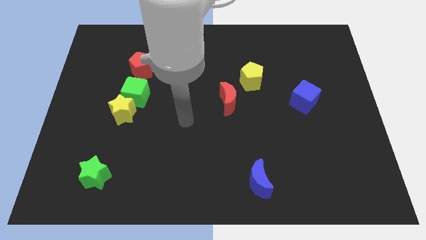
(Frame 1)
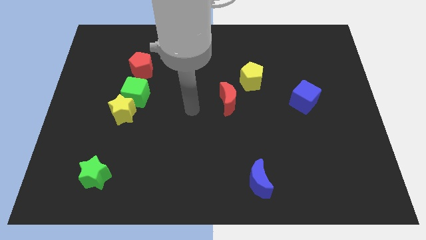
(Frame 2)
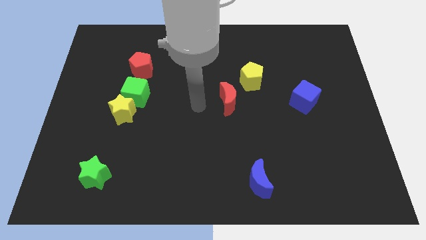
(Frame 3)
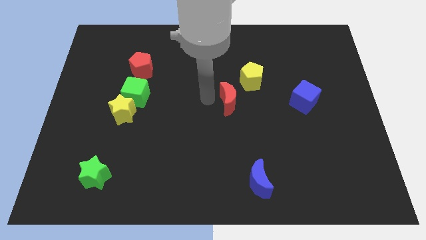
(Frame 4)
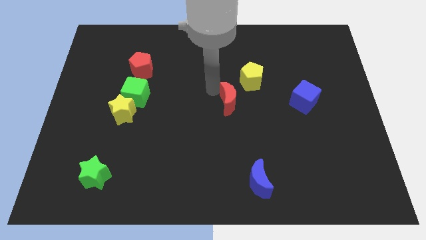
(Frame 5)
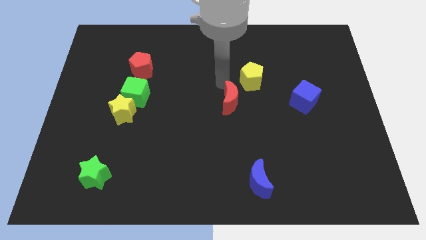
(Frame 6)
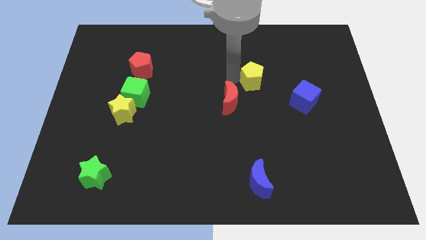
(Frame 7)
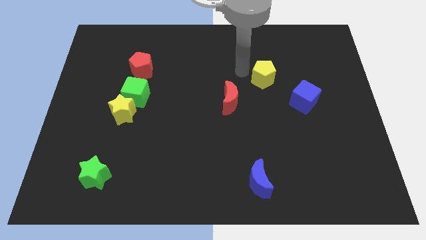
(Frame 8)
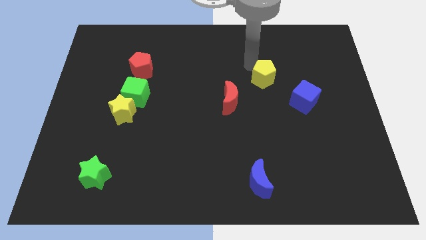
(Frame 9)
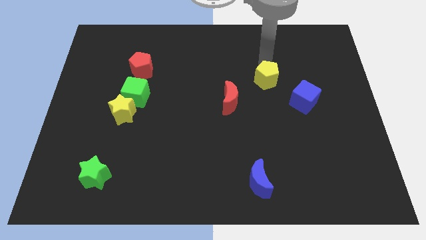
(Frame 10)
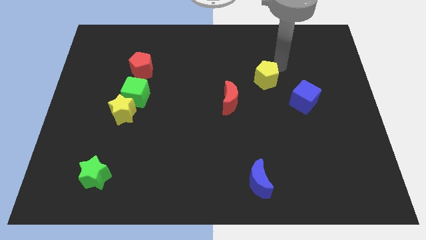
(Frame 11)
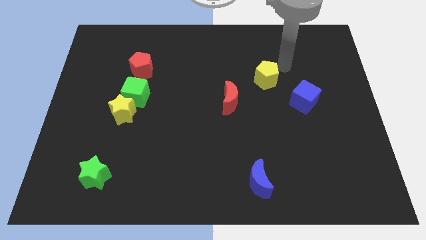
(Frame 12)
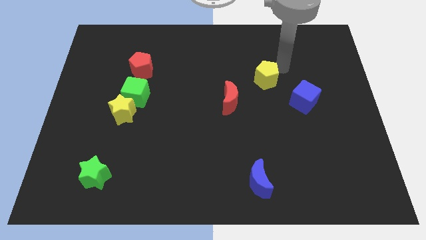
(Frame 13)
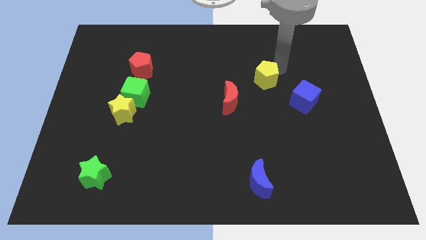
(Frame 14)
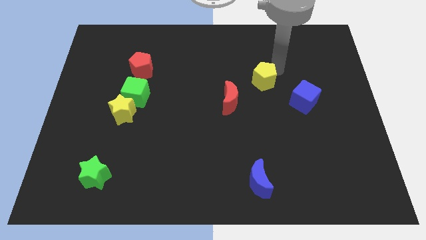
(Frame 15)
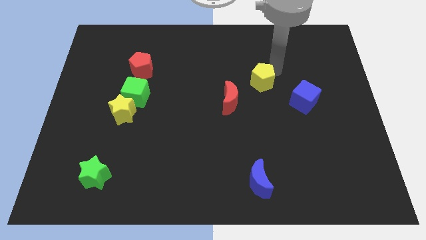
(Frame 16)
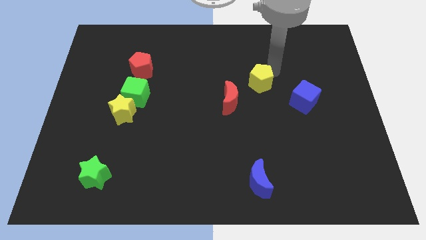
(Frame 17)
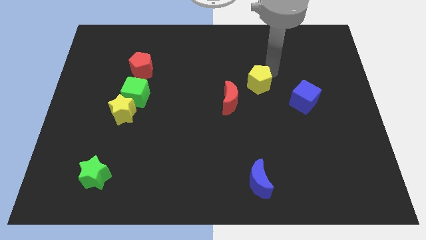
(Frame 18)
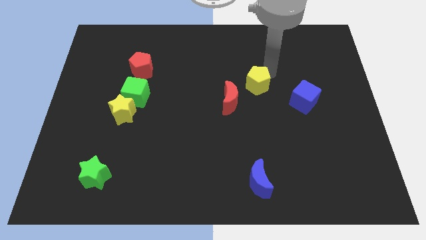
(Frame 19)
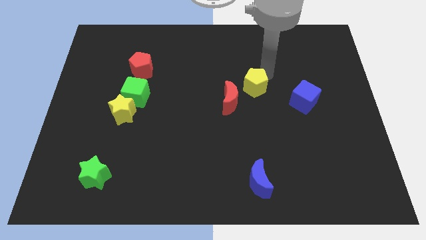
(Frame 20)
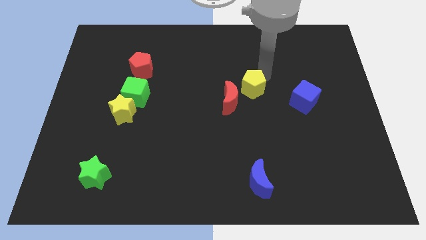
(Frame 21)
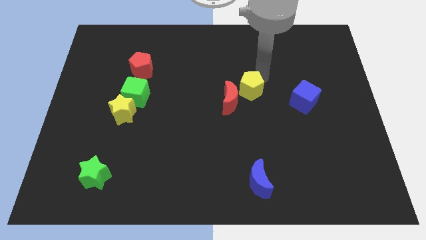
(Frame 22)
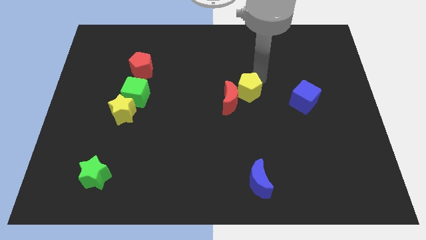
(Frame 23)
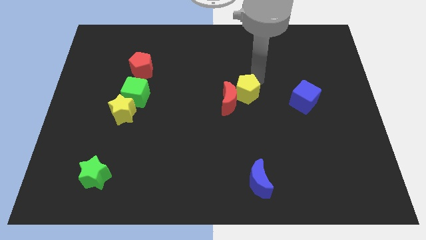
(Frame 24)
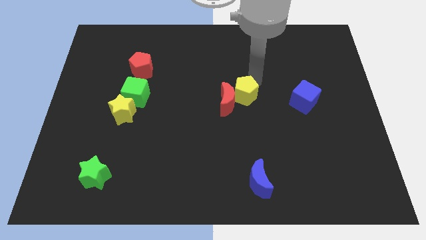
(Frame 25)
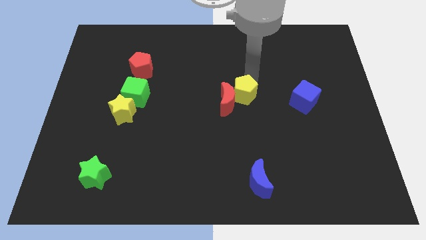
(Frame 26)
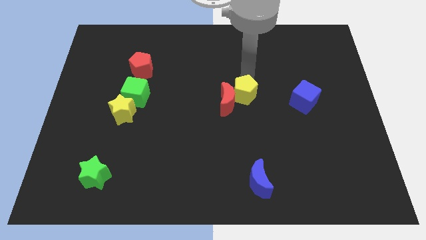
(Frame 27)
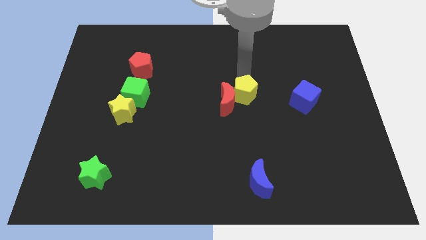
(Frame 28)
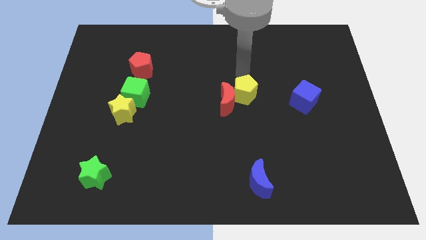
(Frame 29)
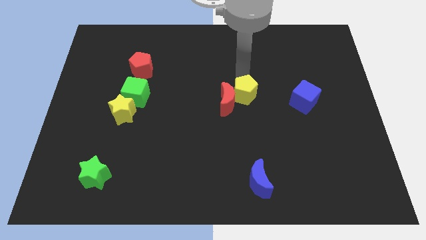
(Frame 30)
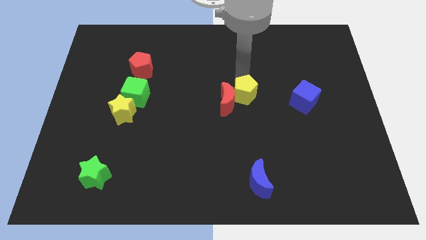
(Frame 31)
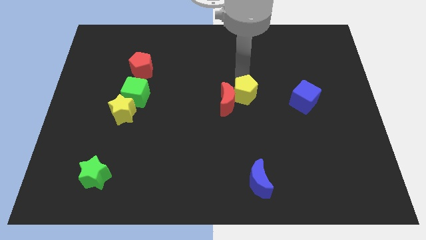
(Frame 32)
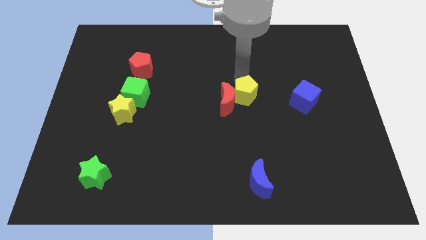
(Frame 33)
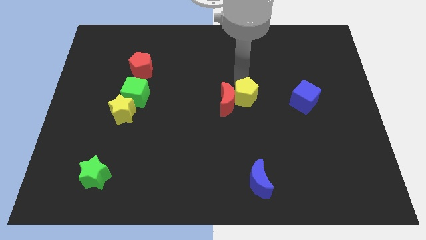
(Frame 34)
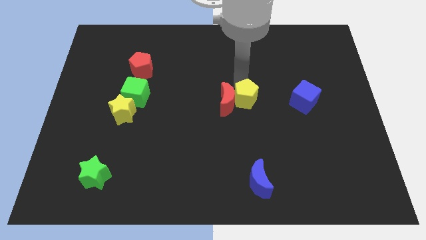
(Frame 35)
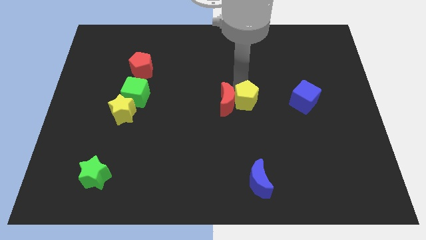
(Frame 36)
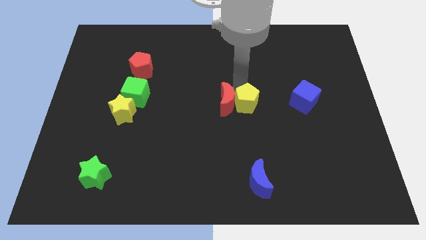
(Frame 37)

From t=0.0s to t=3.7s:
slide the yellow pentagon downwards a little bit

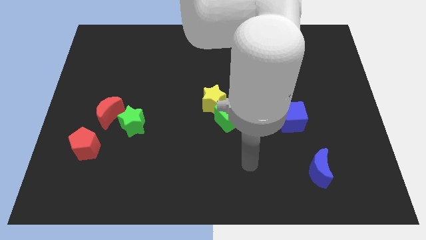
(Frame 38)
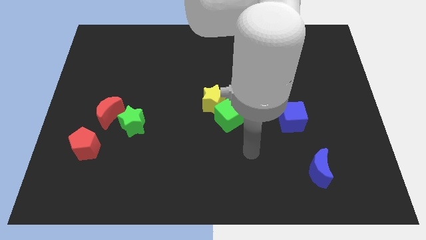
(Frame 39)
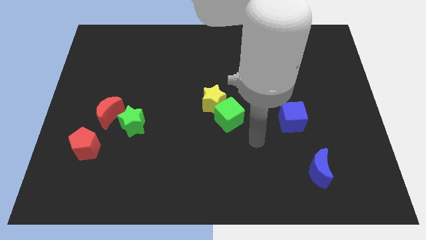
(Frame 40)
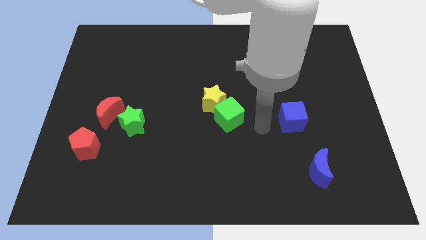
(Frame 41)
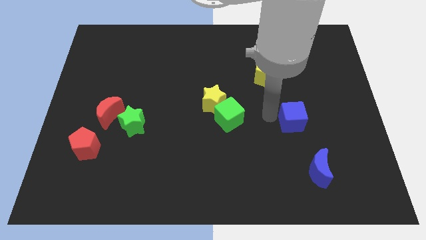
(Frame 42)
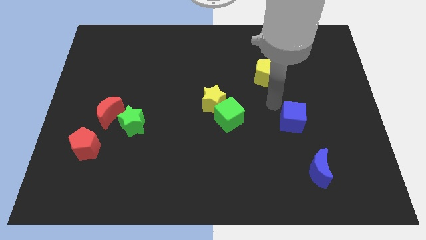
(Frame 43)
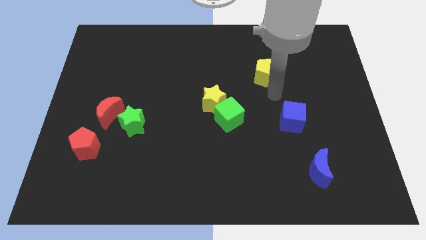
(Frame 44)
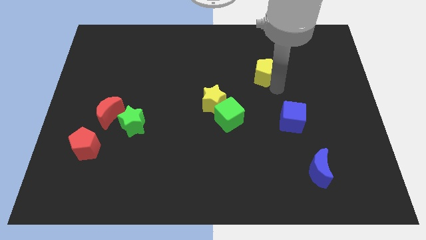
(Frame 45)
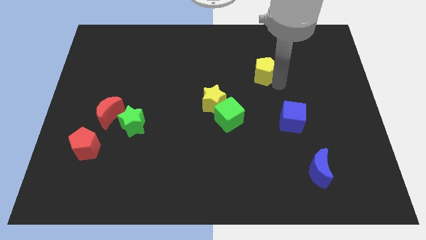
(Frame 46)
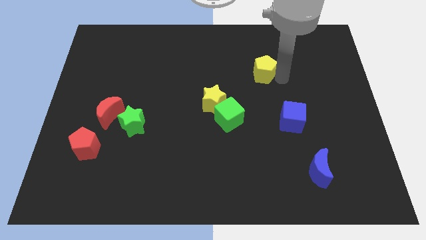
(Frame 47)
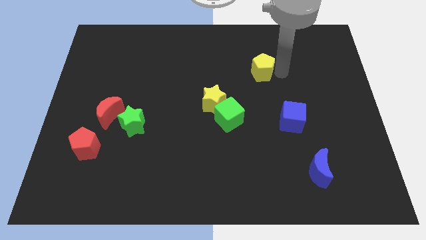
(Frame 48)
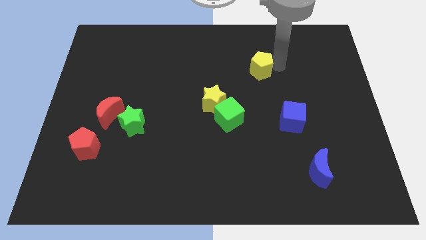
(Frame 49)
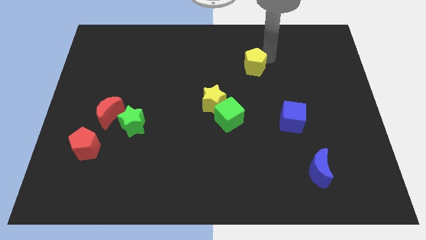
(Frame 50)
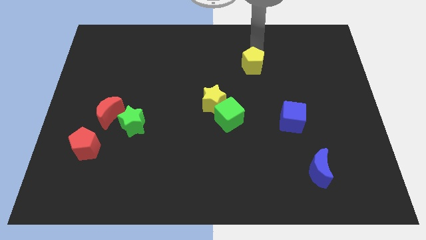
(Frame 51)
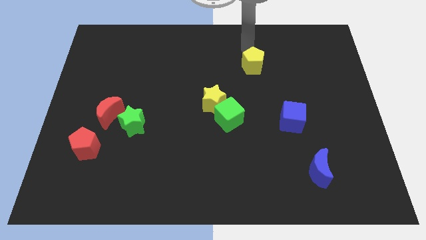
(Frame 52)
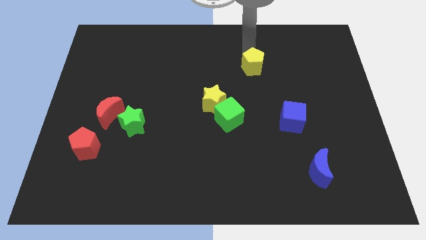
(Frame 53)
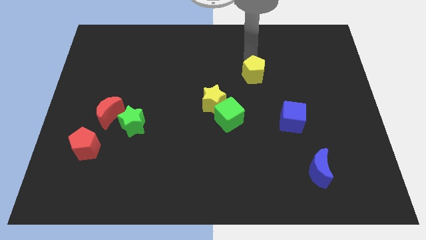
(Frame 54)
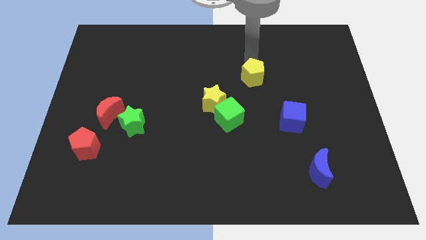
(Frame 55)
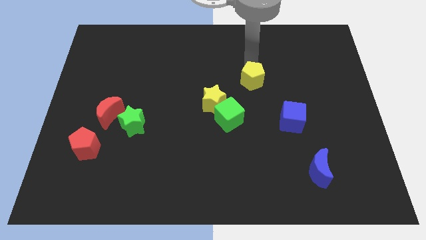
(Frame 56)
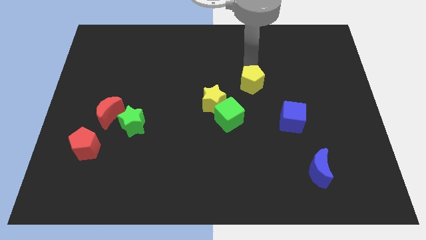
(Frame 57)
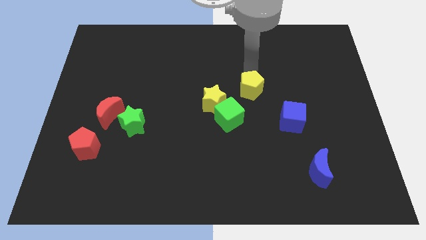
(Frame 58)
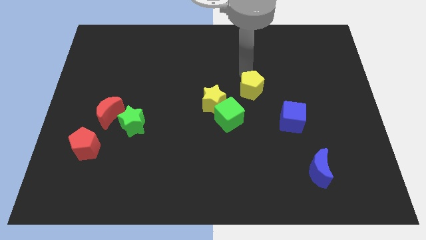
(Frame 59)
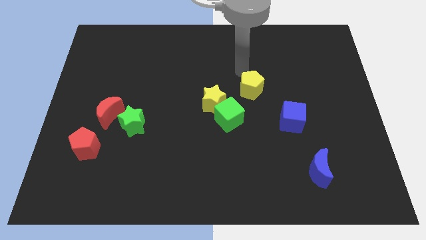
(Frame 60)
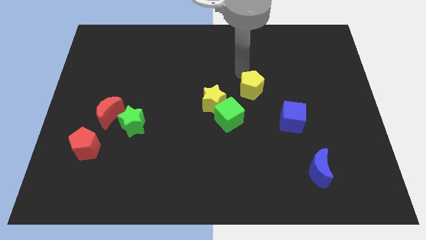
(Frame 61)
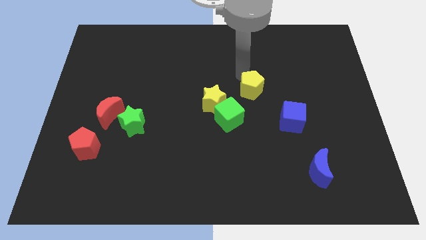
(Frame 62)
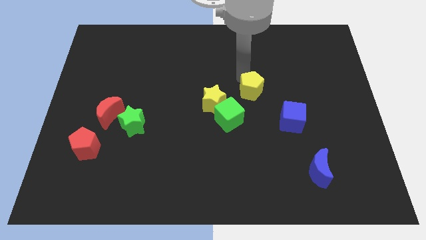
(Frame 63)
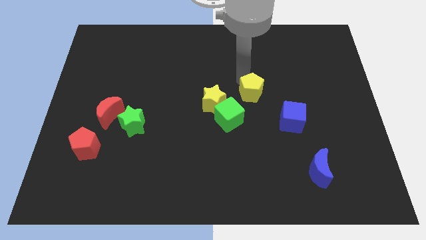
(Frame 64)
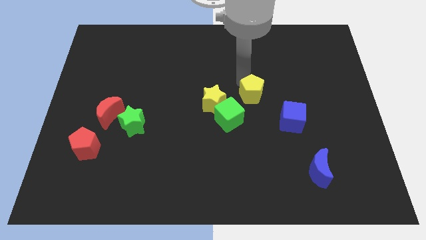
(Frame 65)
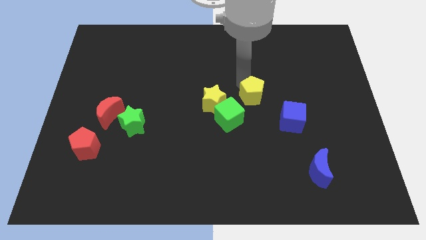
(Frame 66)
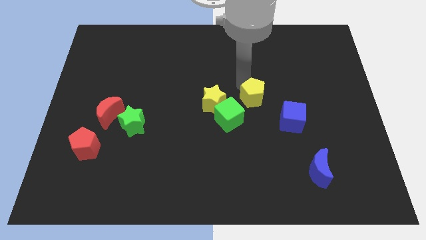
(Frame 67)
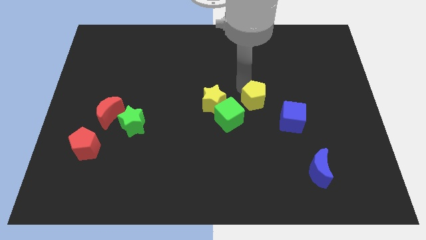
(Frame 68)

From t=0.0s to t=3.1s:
move the yellow pentagon a little downwards

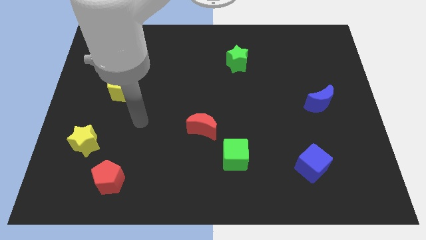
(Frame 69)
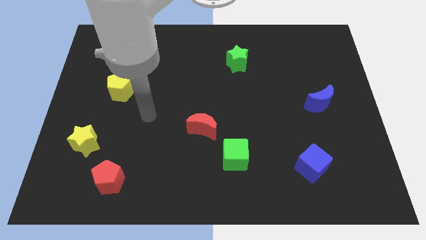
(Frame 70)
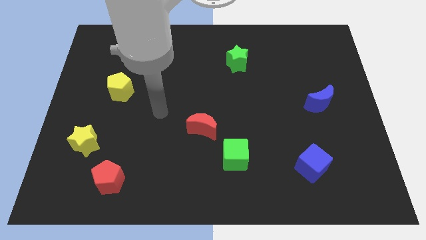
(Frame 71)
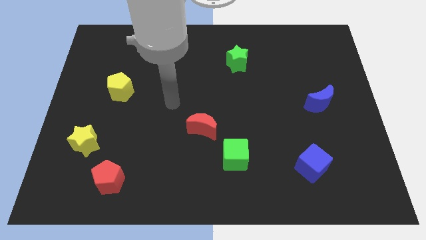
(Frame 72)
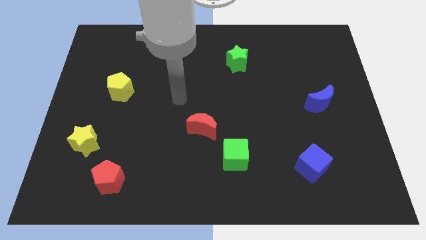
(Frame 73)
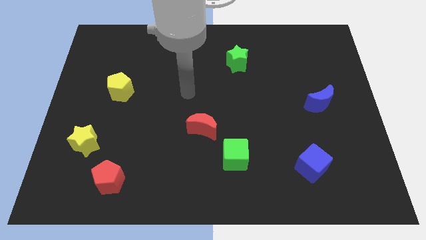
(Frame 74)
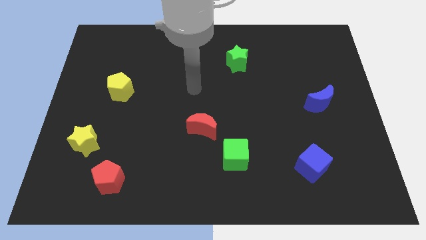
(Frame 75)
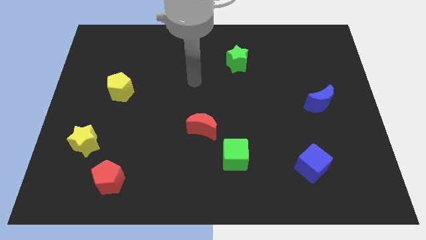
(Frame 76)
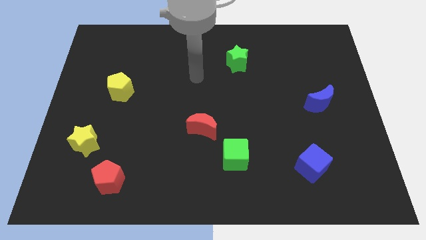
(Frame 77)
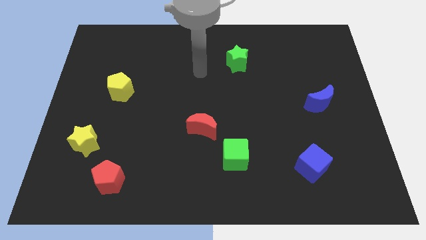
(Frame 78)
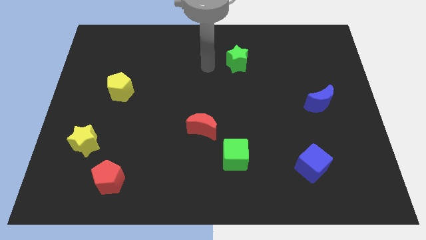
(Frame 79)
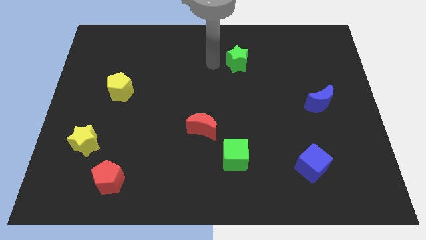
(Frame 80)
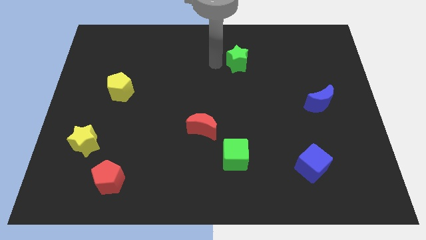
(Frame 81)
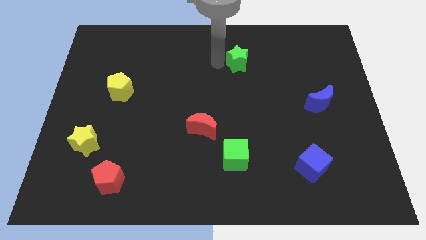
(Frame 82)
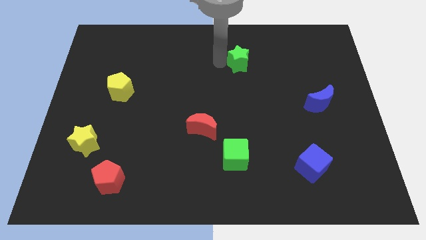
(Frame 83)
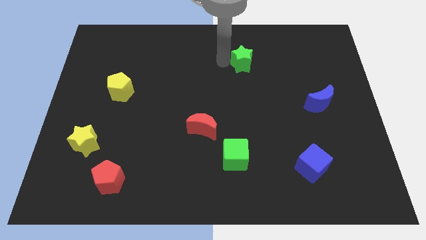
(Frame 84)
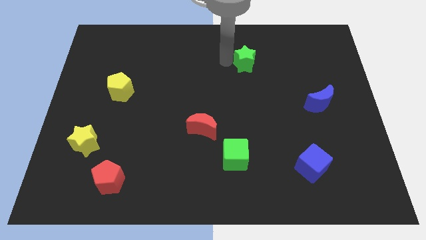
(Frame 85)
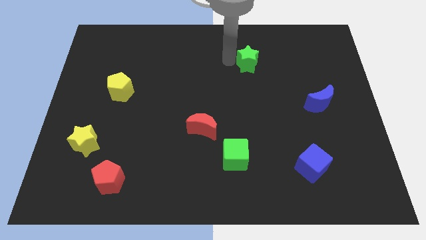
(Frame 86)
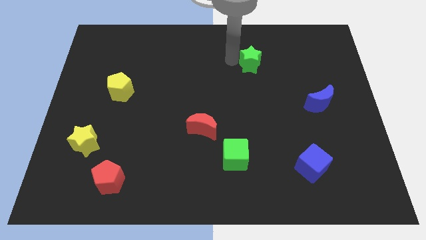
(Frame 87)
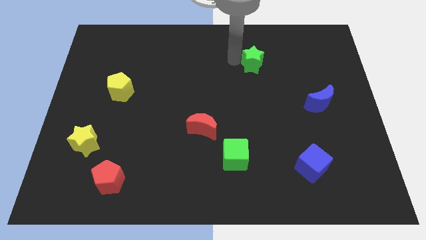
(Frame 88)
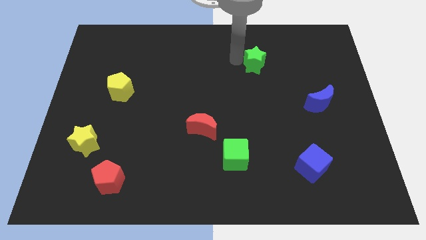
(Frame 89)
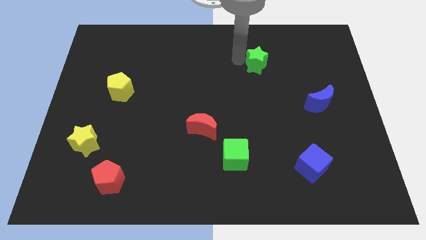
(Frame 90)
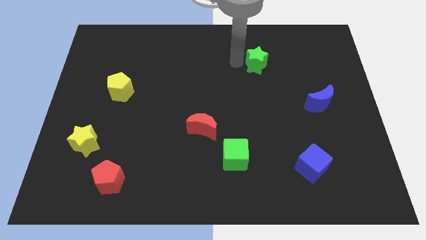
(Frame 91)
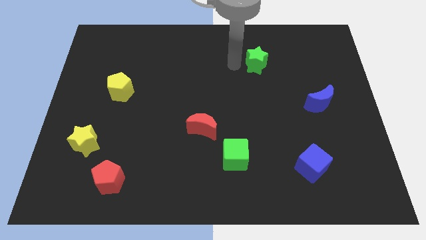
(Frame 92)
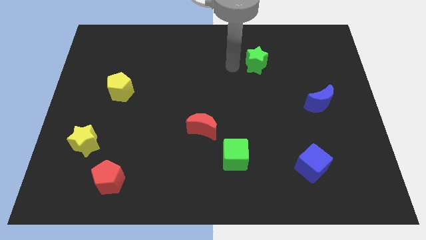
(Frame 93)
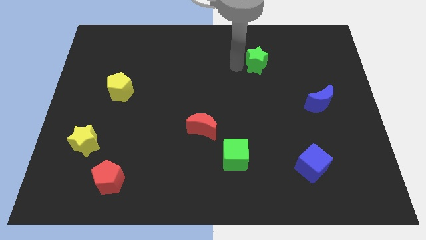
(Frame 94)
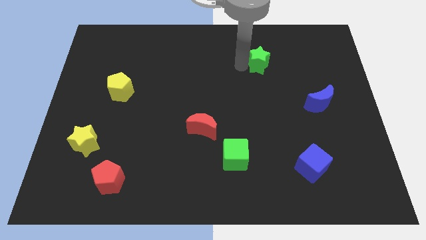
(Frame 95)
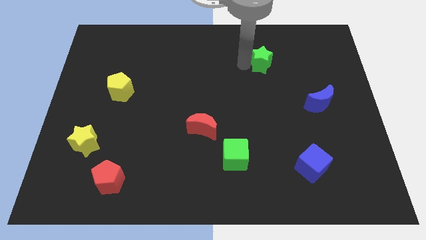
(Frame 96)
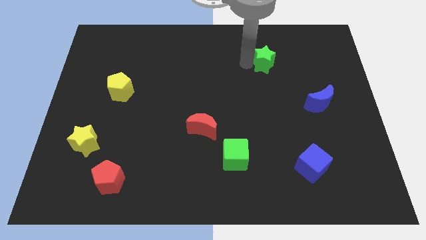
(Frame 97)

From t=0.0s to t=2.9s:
push the green star a little right
